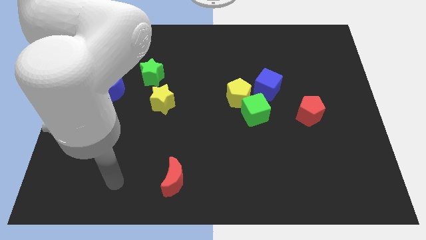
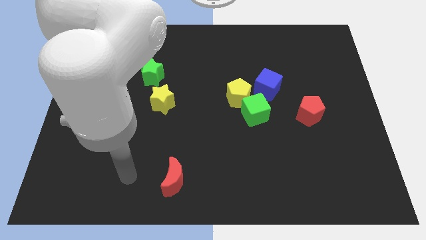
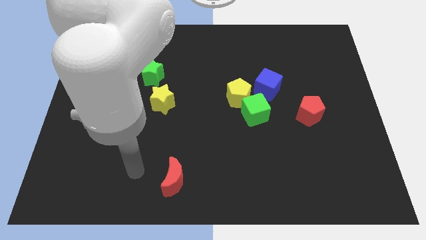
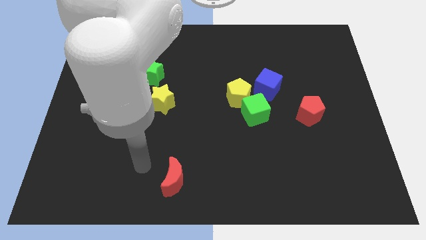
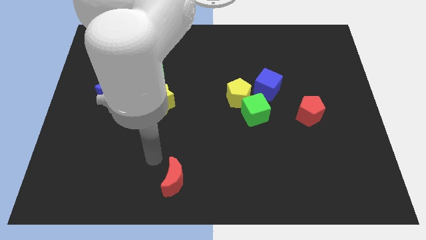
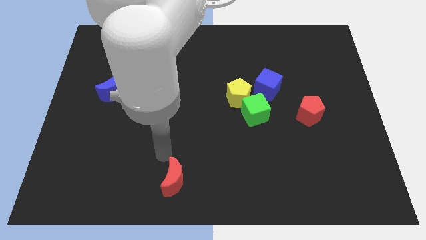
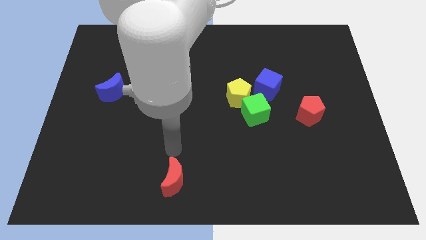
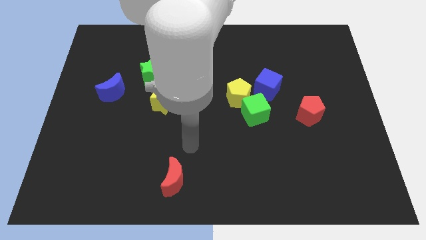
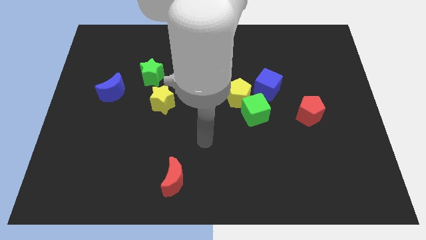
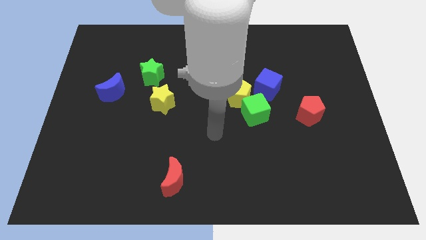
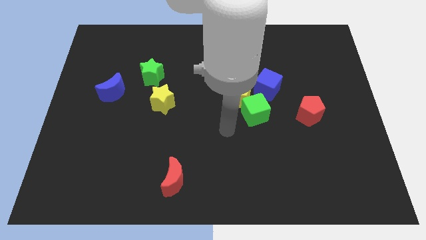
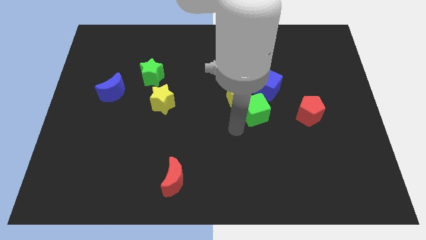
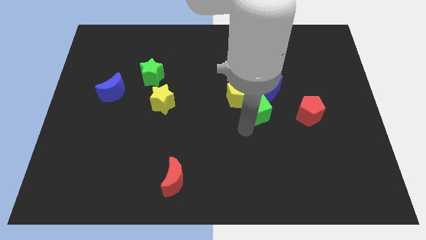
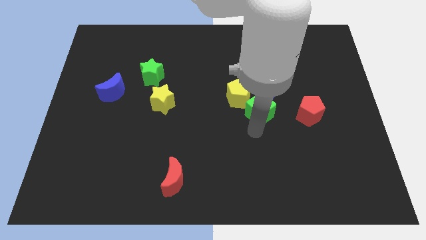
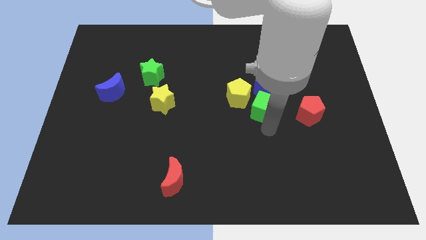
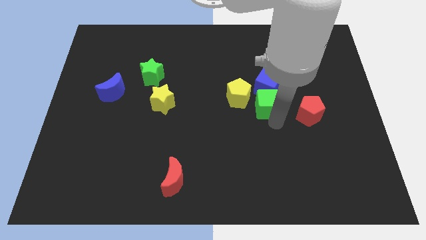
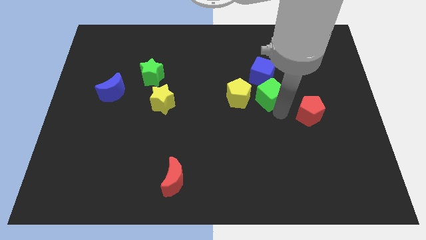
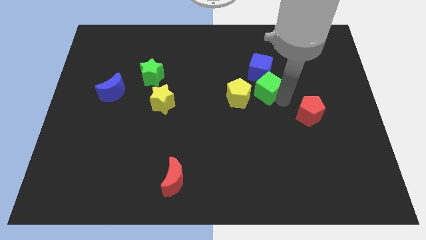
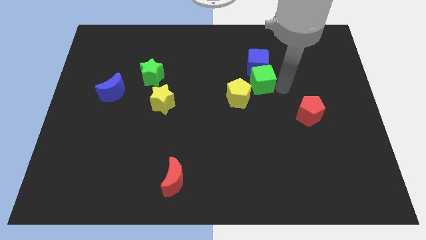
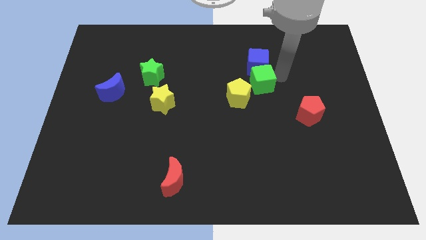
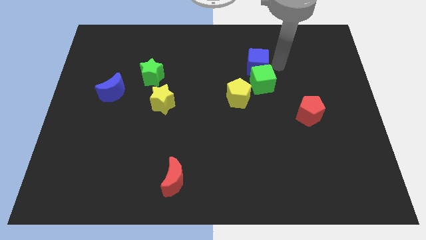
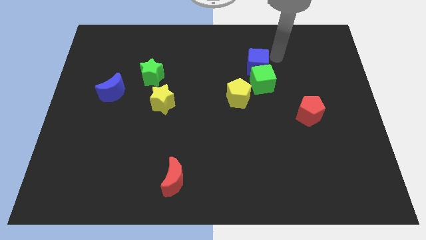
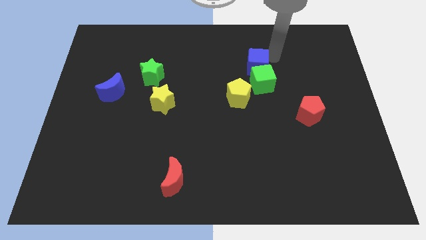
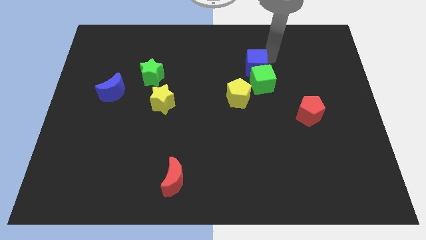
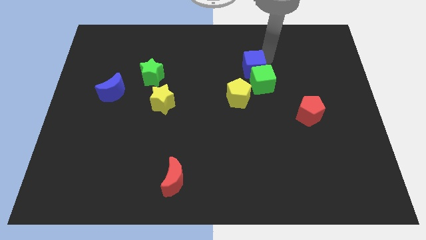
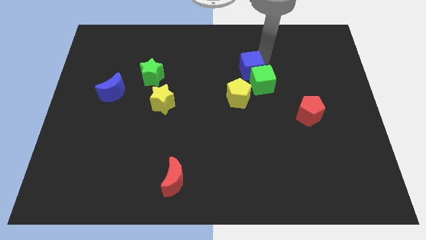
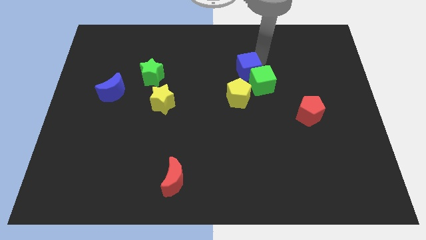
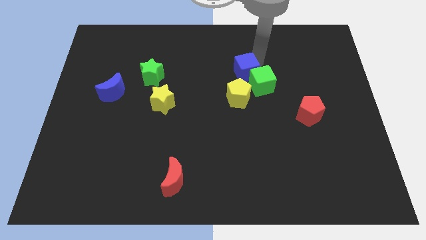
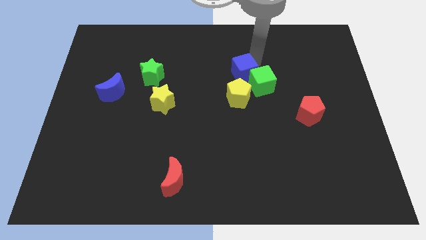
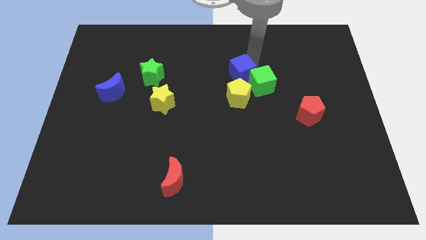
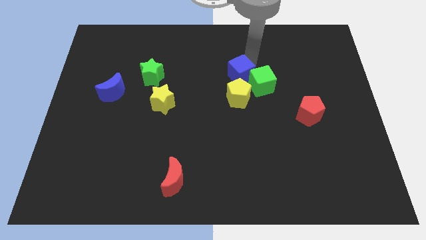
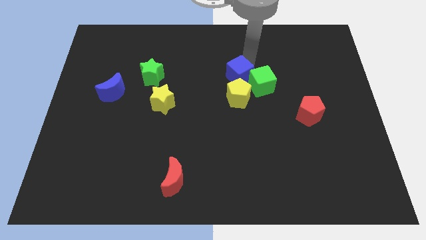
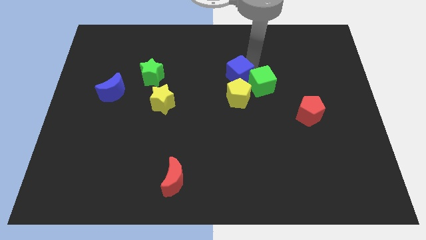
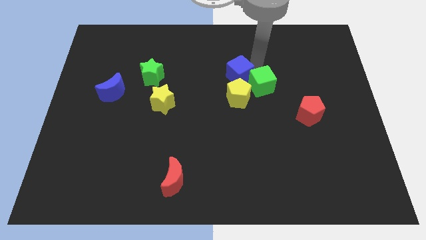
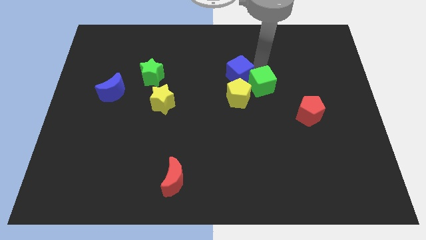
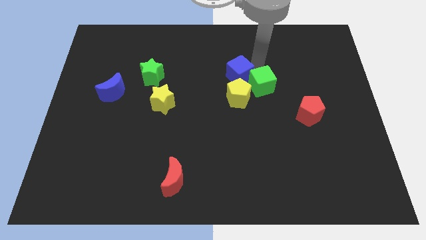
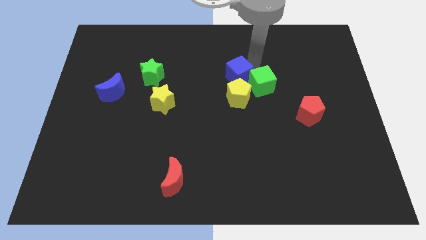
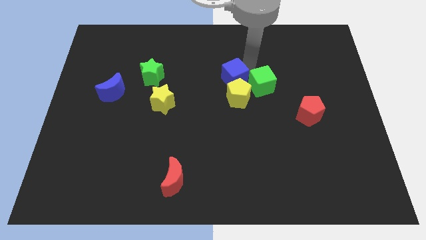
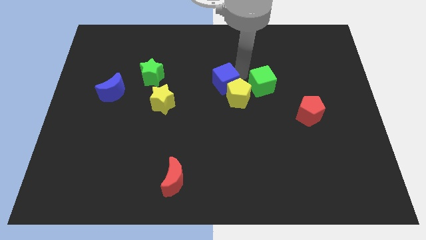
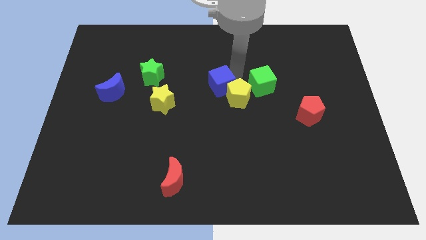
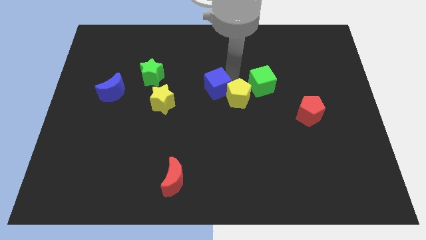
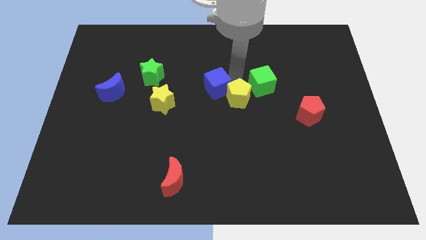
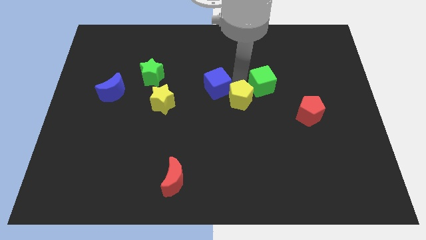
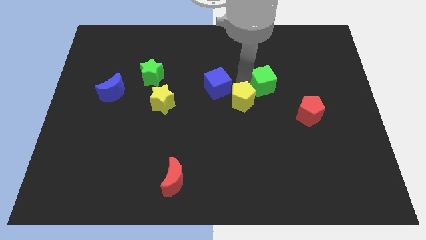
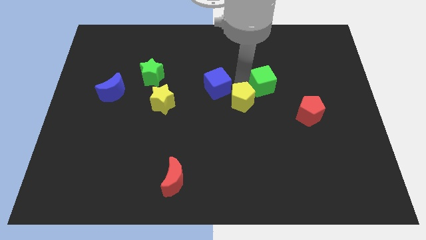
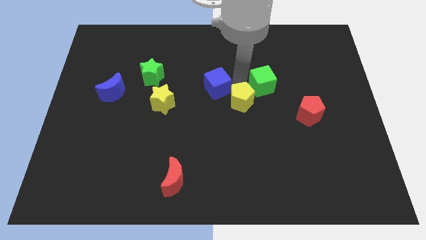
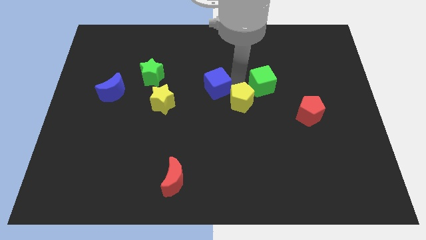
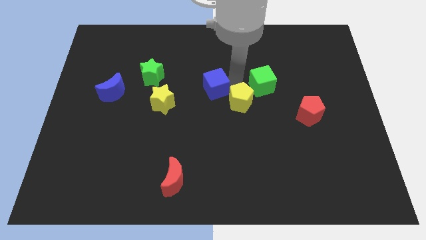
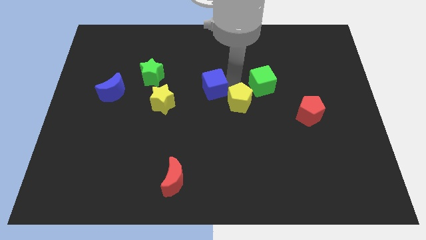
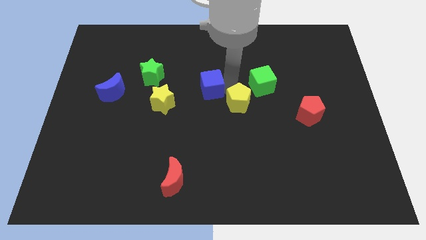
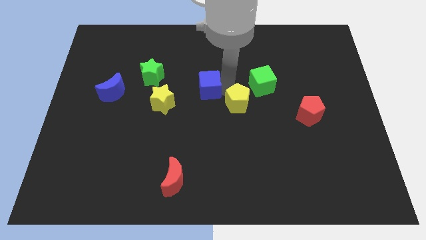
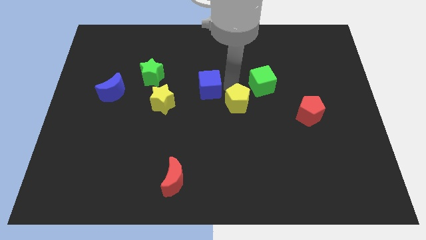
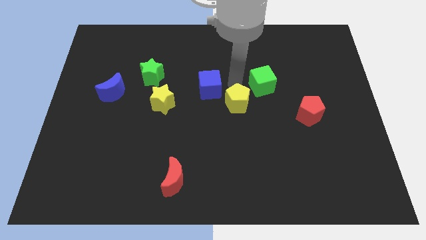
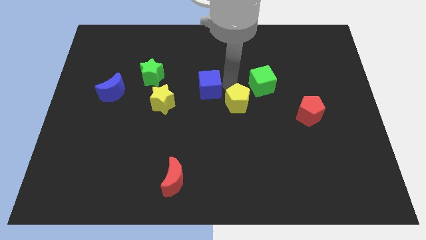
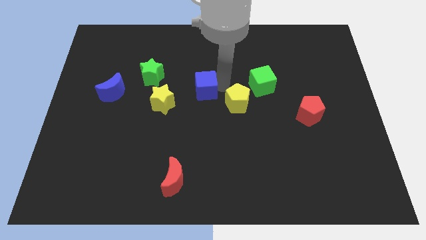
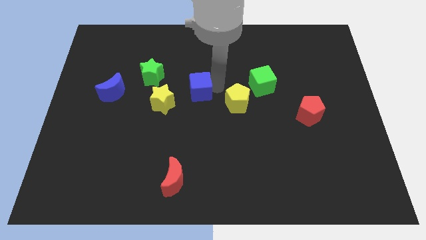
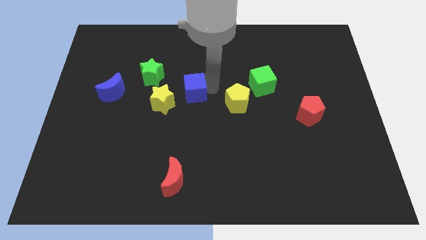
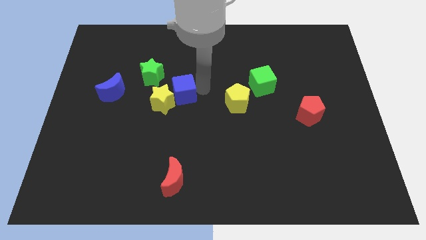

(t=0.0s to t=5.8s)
slide the blue cube close to the yellow star

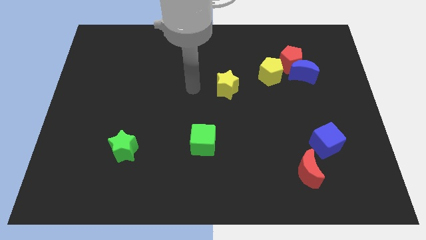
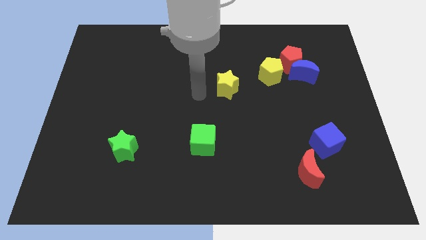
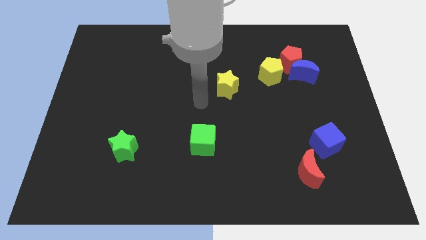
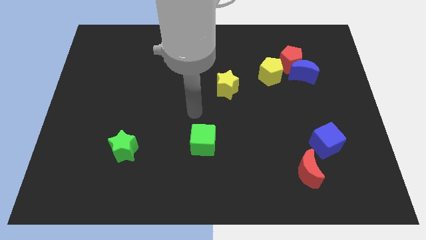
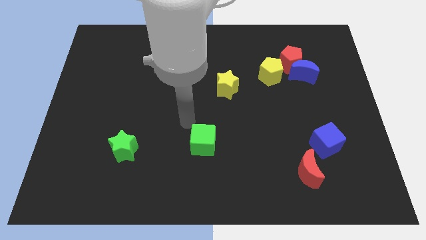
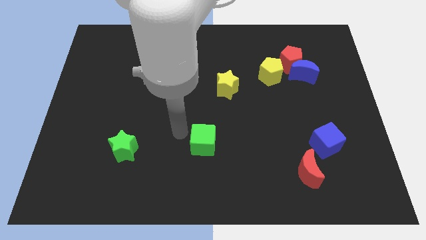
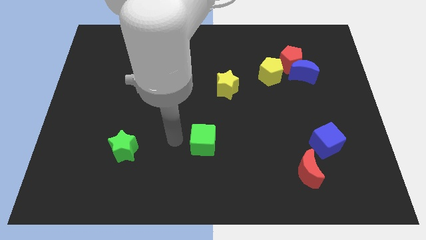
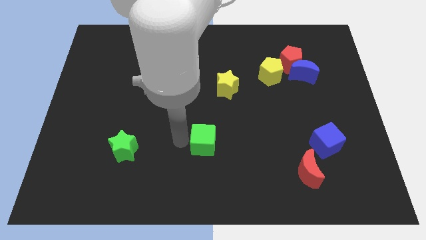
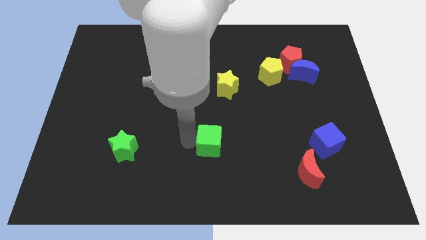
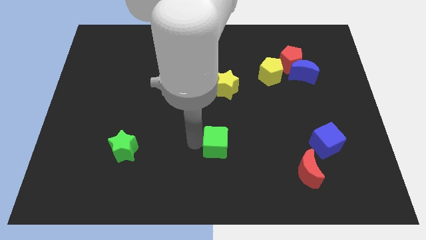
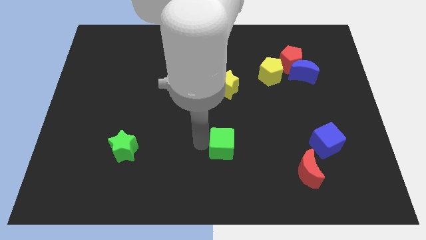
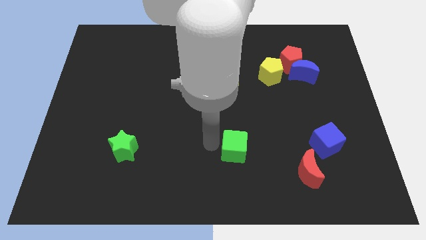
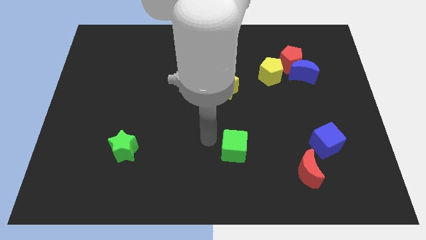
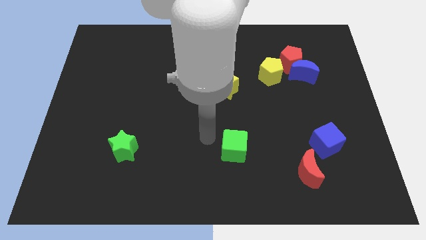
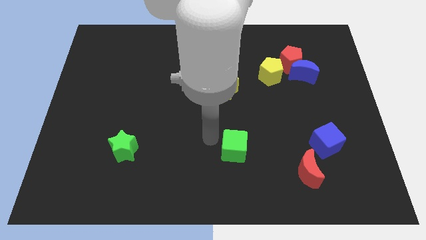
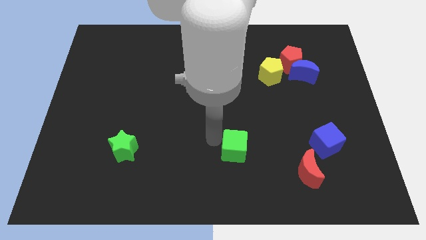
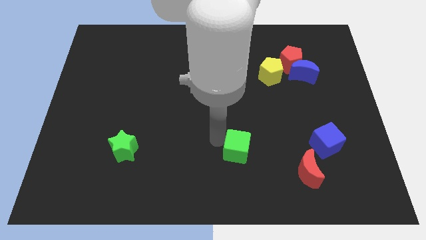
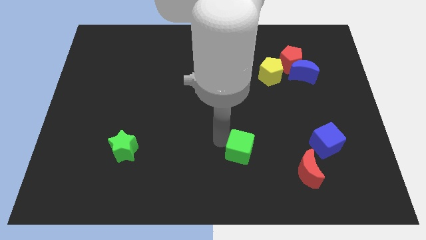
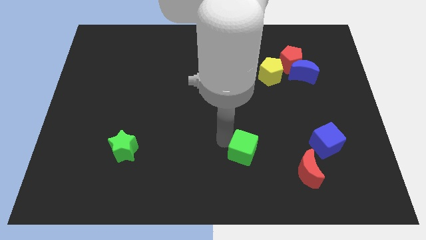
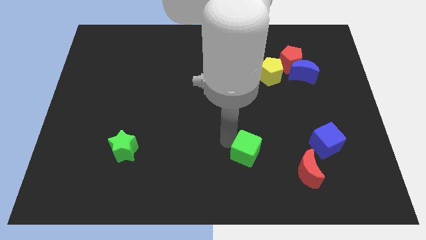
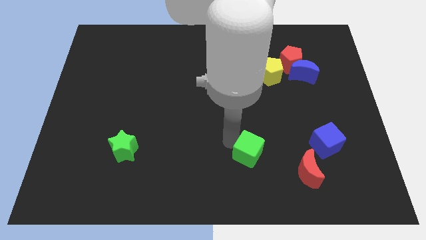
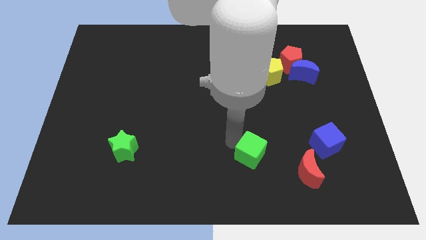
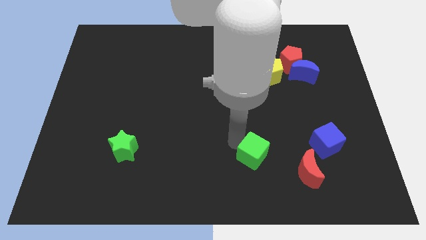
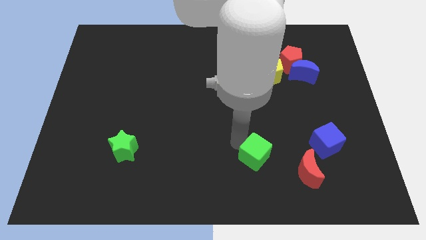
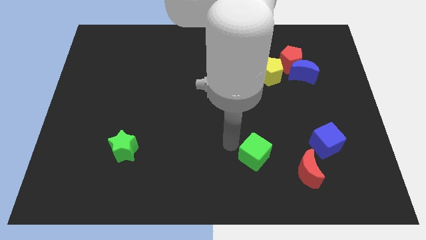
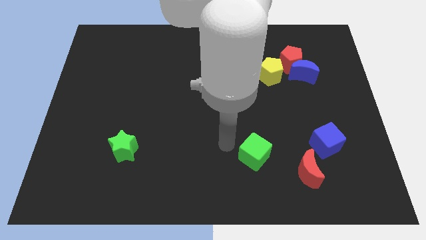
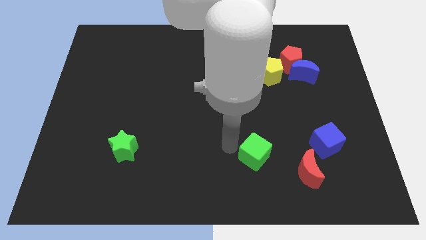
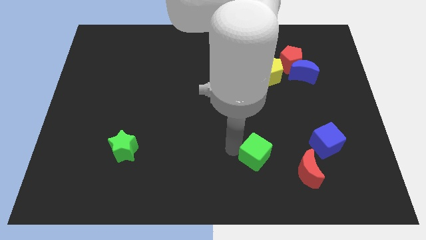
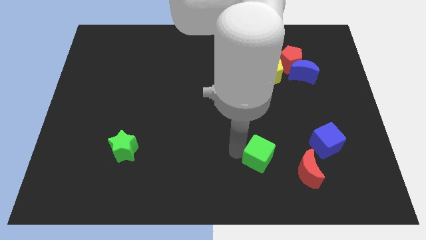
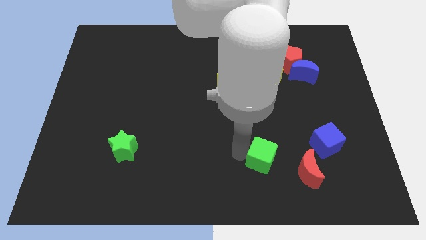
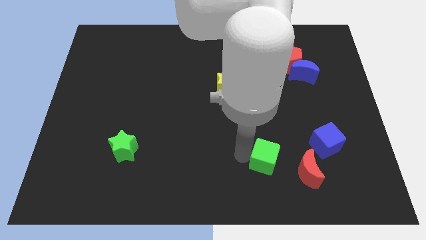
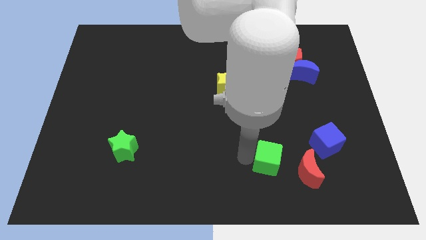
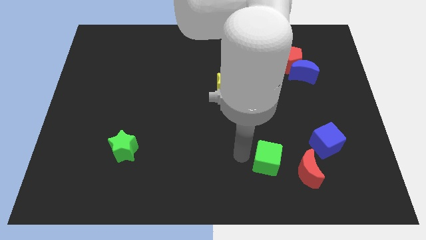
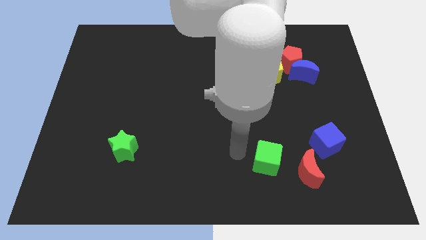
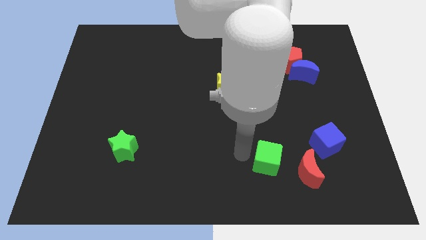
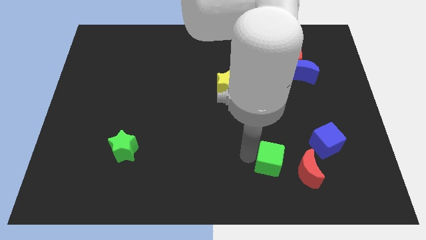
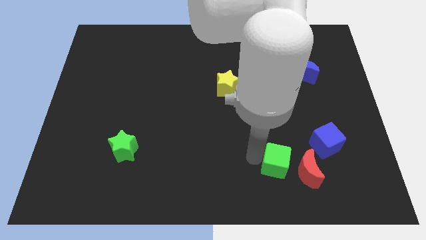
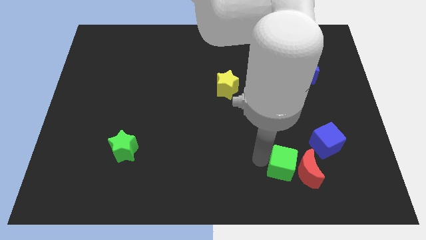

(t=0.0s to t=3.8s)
put the green cube towards the red moon
